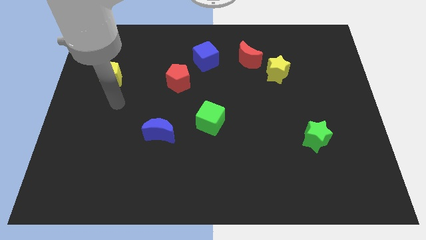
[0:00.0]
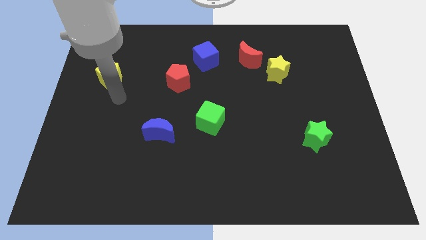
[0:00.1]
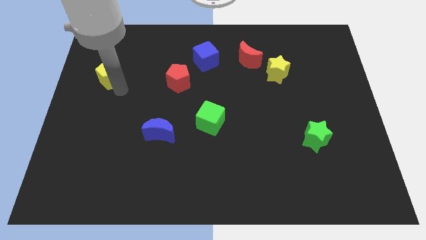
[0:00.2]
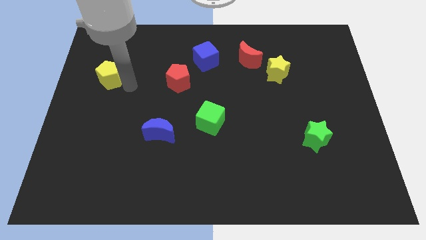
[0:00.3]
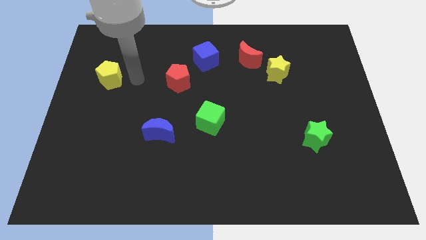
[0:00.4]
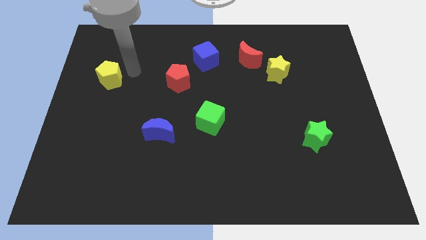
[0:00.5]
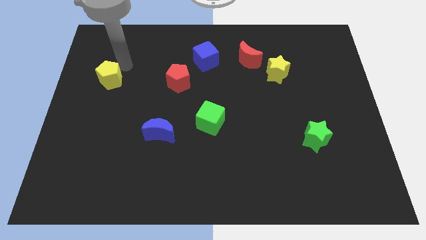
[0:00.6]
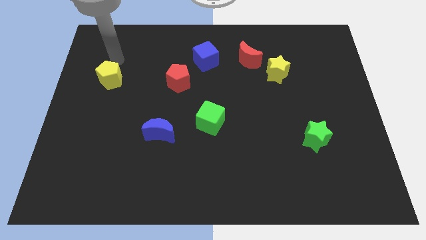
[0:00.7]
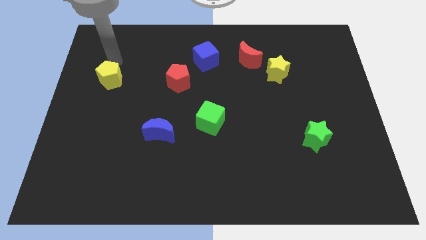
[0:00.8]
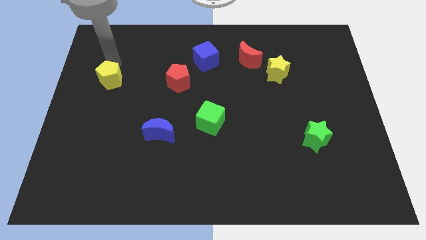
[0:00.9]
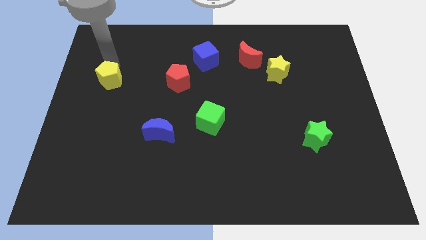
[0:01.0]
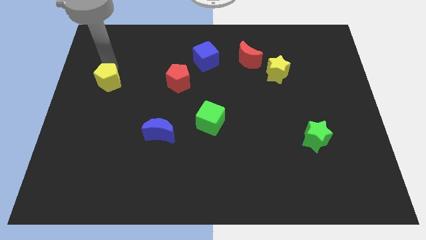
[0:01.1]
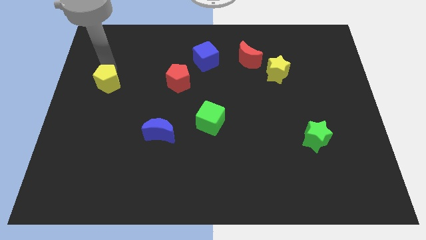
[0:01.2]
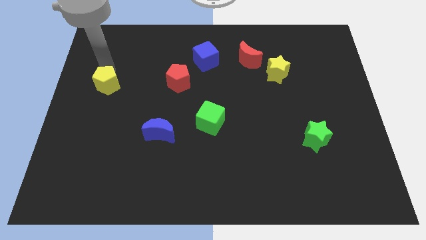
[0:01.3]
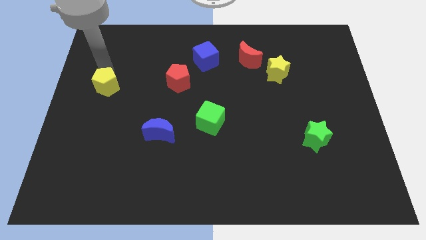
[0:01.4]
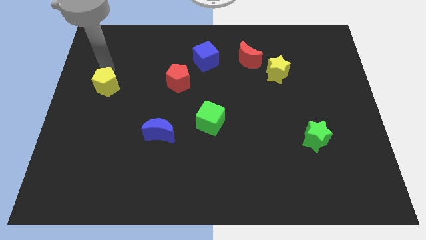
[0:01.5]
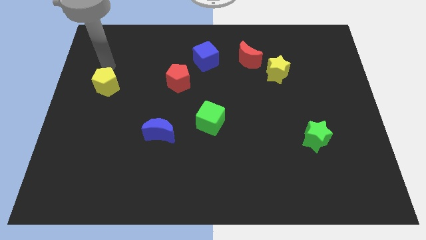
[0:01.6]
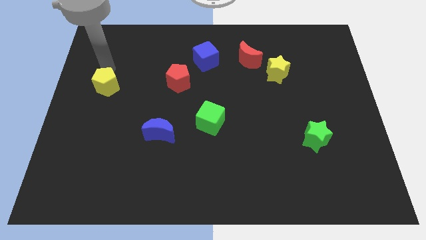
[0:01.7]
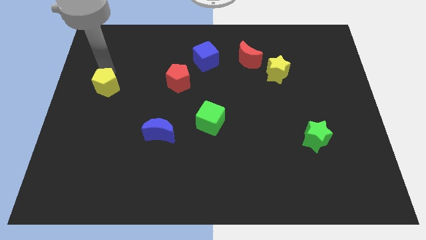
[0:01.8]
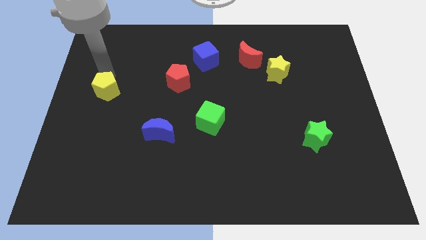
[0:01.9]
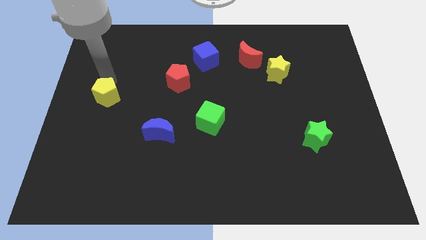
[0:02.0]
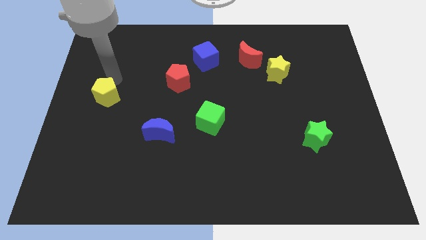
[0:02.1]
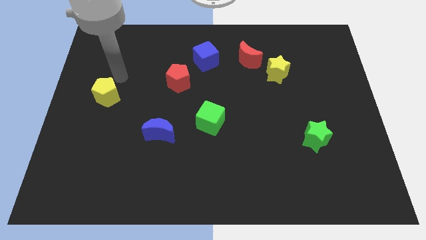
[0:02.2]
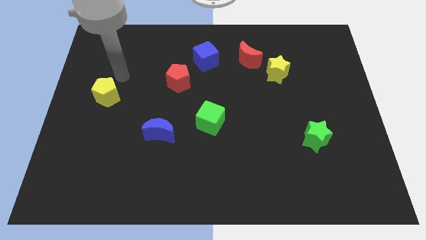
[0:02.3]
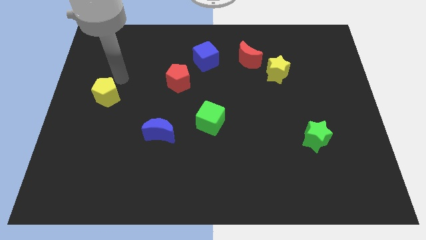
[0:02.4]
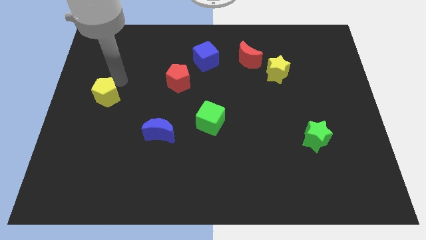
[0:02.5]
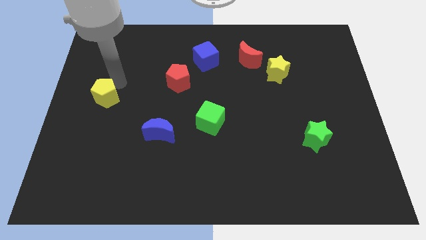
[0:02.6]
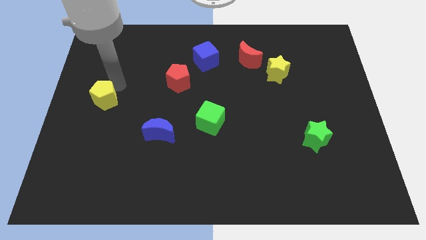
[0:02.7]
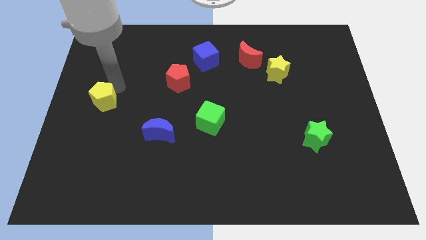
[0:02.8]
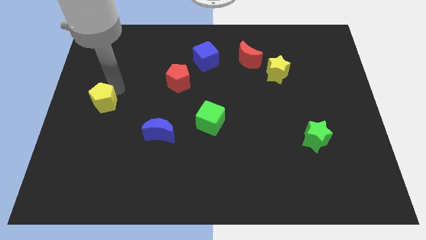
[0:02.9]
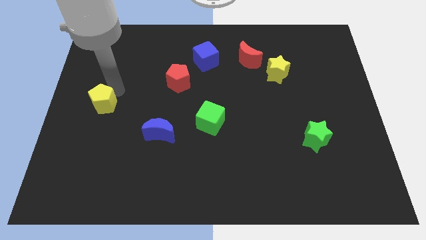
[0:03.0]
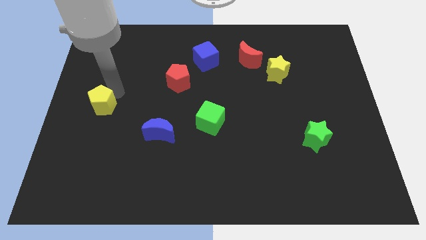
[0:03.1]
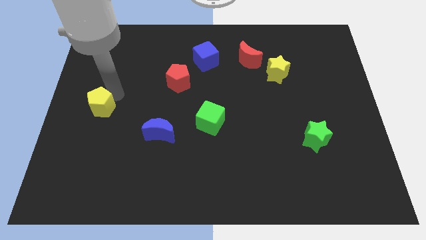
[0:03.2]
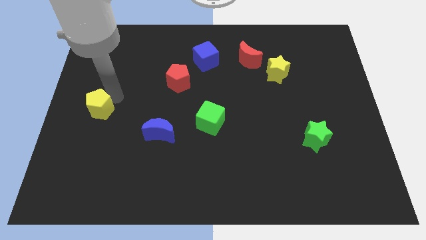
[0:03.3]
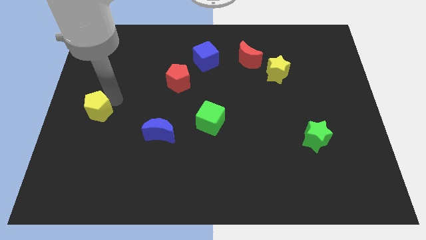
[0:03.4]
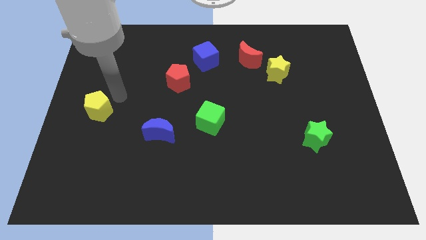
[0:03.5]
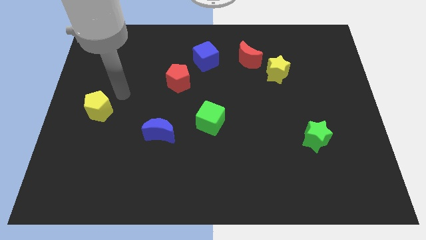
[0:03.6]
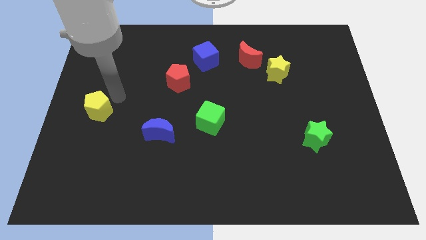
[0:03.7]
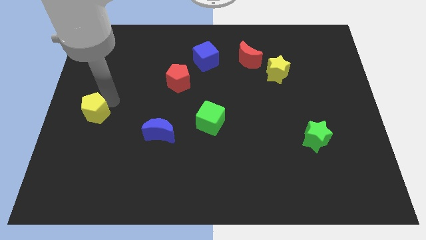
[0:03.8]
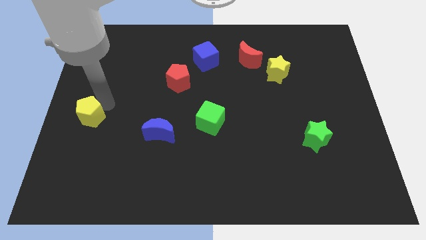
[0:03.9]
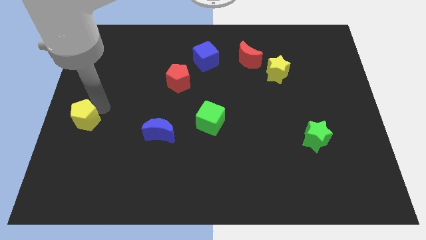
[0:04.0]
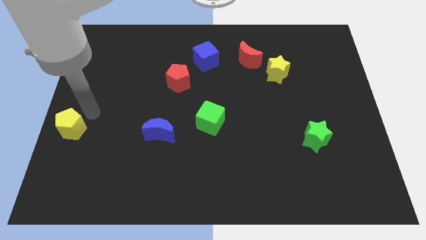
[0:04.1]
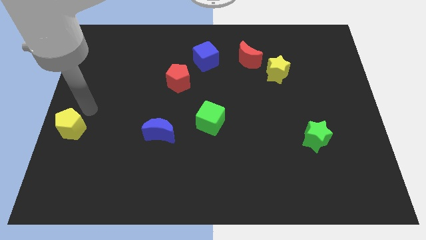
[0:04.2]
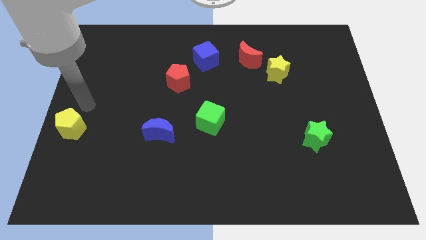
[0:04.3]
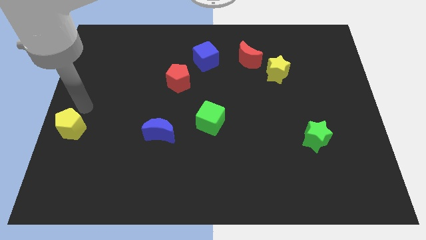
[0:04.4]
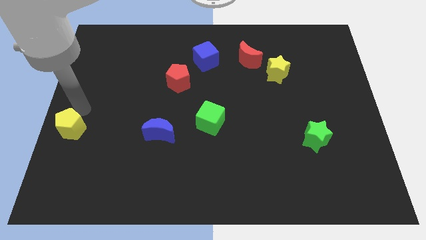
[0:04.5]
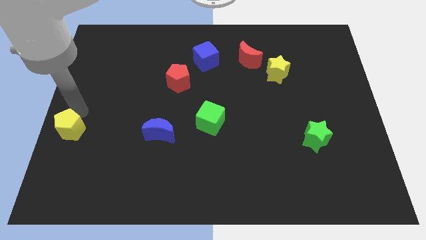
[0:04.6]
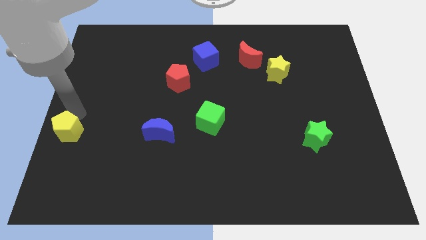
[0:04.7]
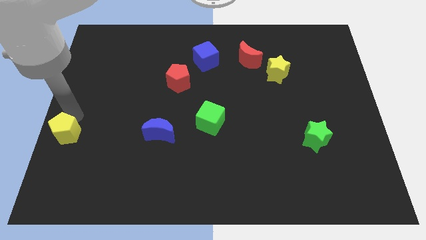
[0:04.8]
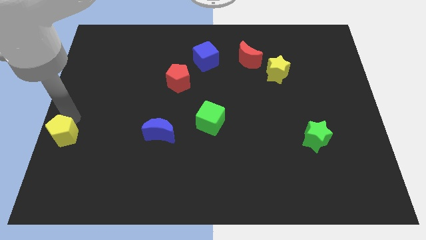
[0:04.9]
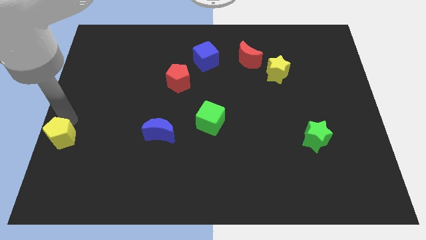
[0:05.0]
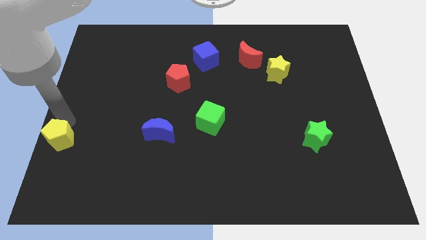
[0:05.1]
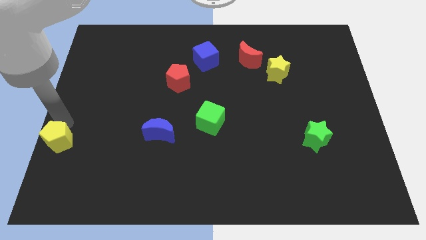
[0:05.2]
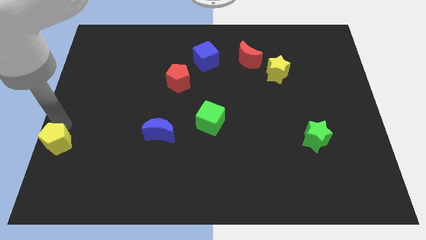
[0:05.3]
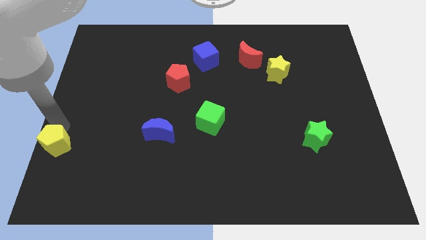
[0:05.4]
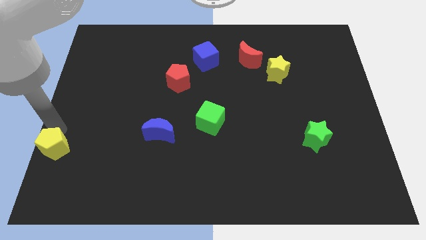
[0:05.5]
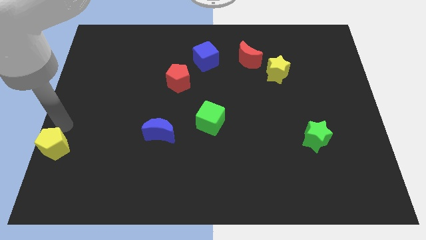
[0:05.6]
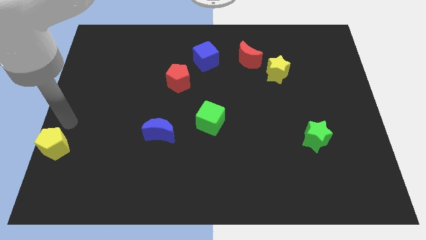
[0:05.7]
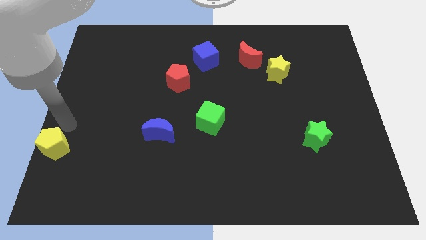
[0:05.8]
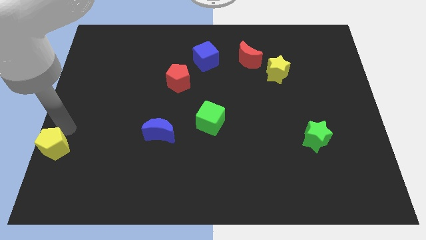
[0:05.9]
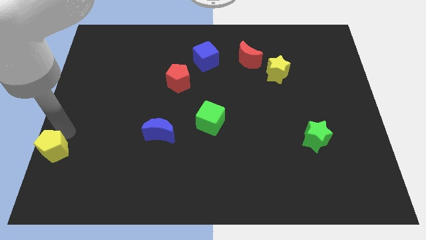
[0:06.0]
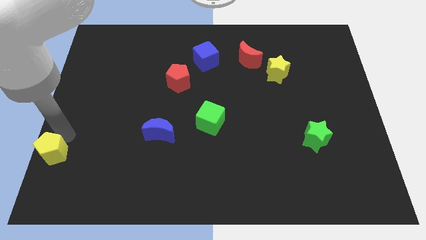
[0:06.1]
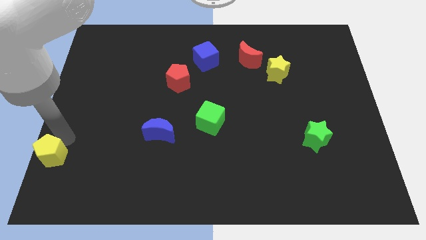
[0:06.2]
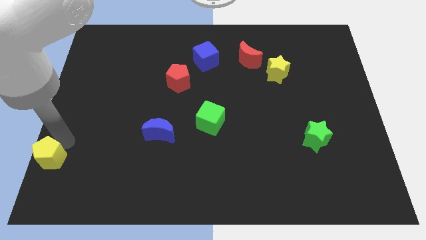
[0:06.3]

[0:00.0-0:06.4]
put the yellow pentagon to the bottom left of the board

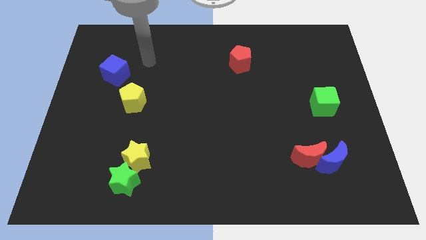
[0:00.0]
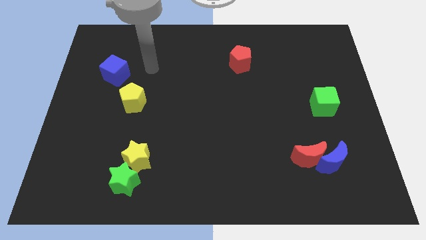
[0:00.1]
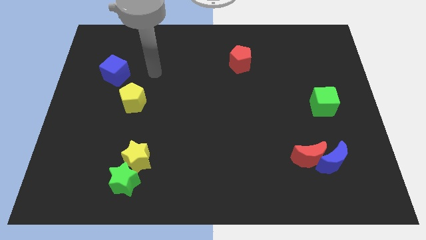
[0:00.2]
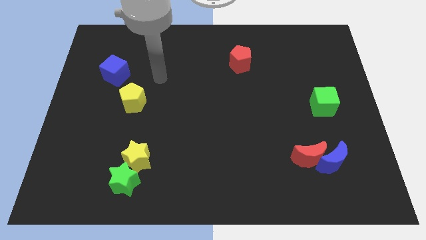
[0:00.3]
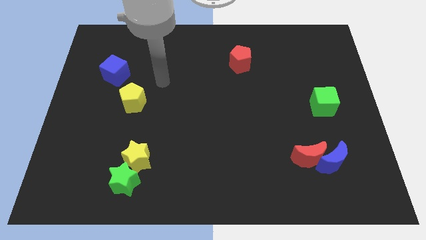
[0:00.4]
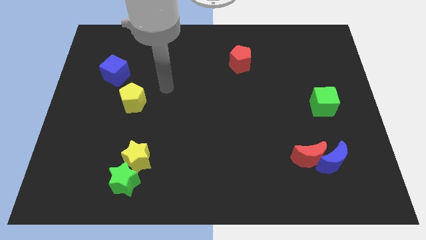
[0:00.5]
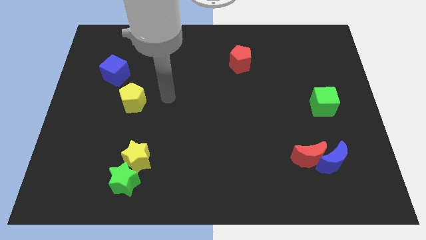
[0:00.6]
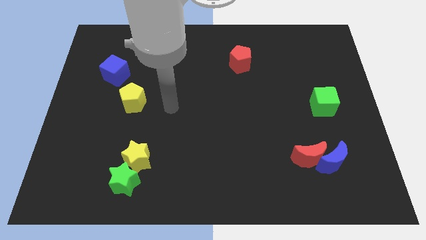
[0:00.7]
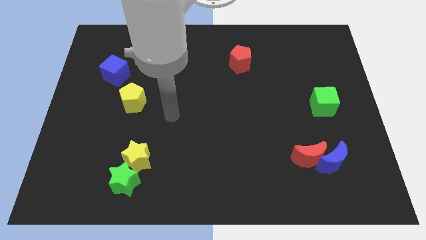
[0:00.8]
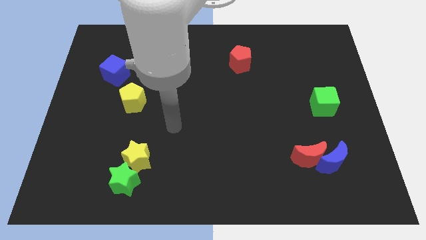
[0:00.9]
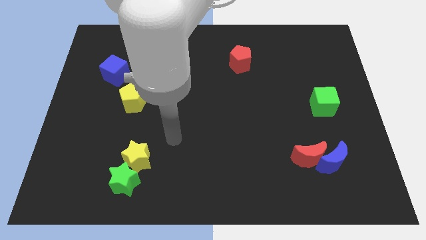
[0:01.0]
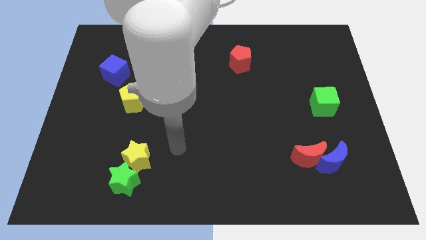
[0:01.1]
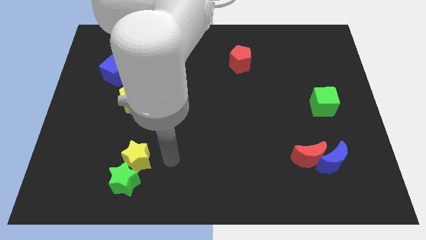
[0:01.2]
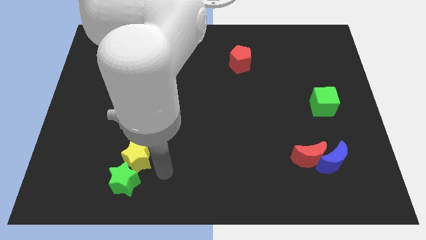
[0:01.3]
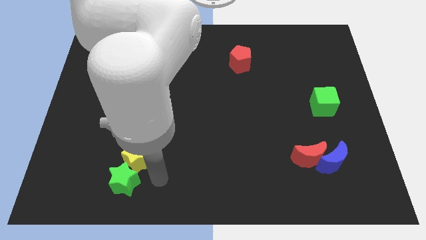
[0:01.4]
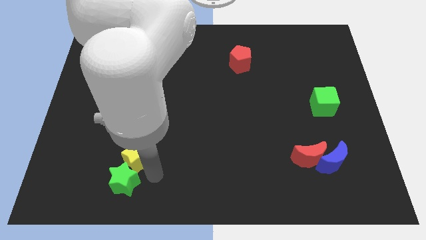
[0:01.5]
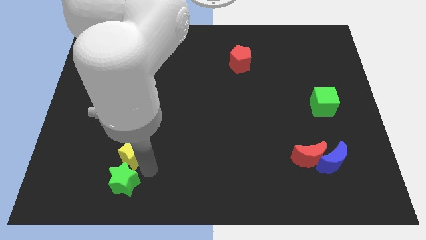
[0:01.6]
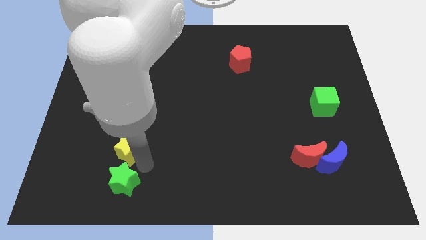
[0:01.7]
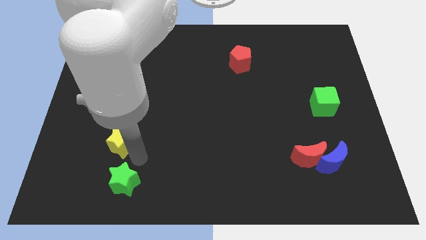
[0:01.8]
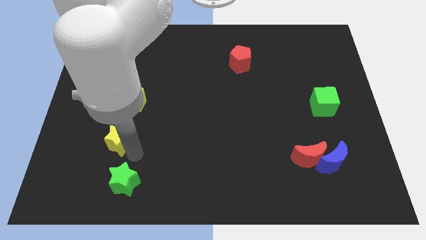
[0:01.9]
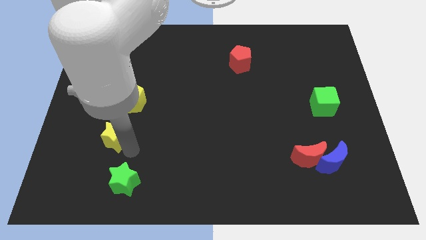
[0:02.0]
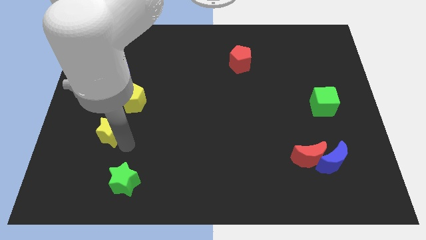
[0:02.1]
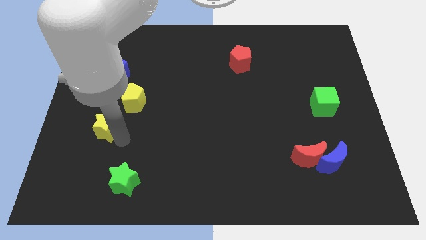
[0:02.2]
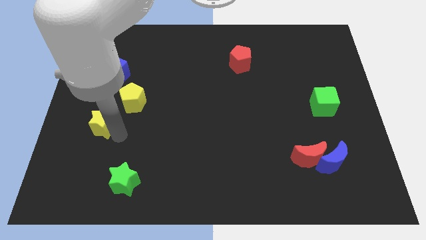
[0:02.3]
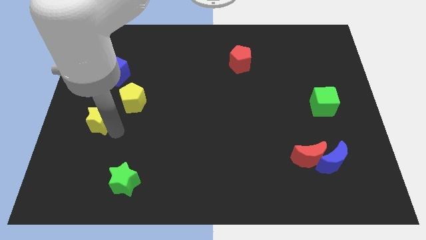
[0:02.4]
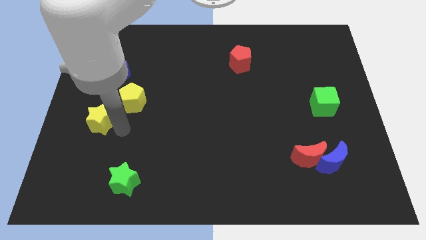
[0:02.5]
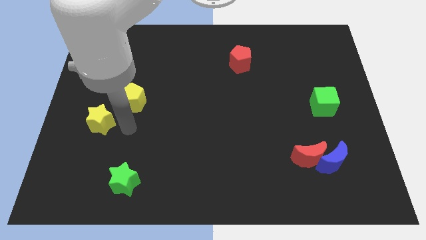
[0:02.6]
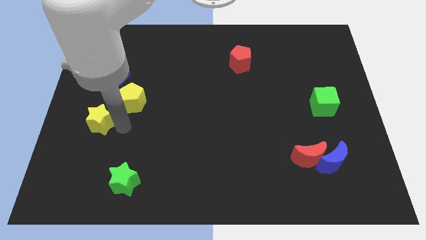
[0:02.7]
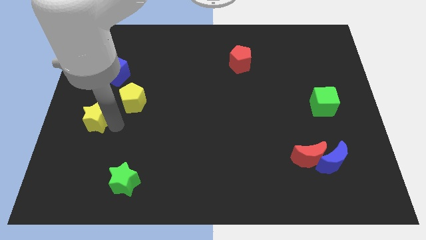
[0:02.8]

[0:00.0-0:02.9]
put the yellow star to the center left
